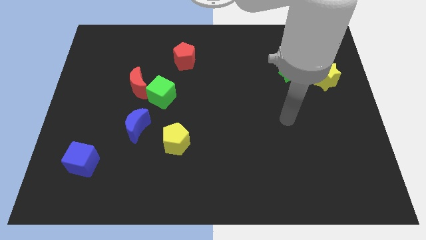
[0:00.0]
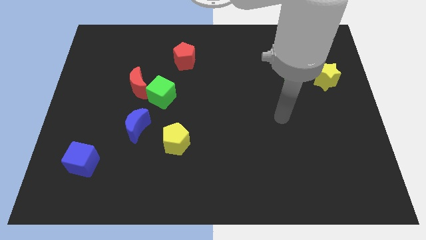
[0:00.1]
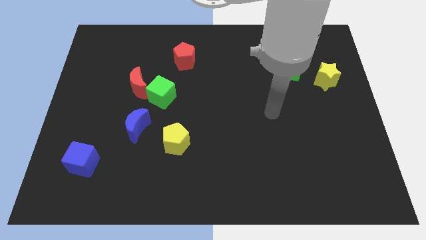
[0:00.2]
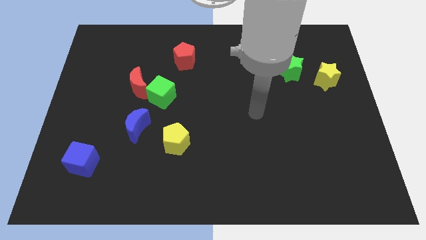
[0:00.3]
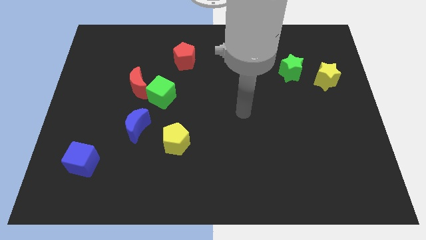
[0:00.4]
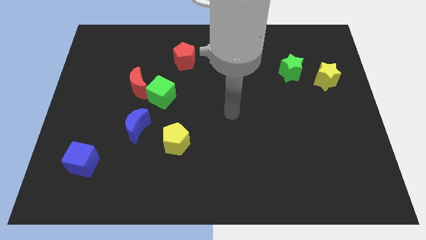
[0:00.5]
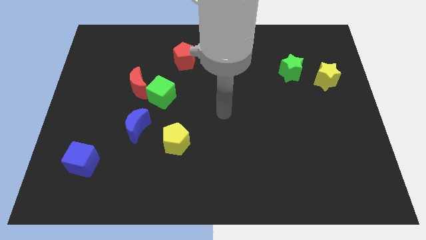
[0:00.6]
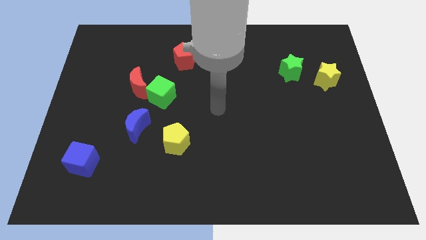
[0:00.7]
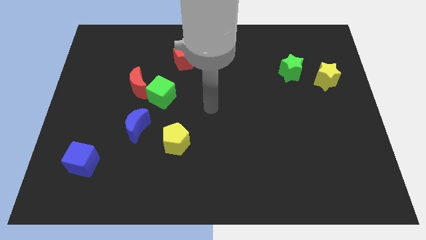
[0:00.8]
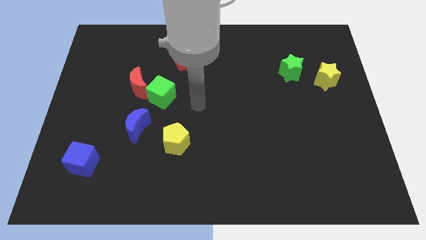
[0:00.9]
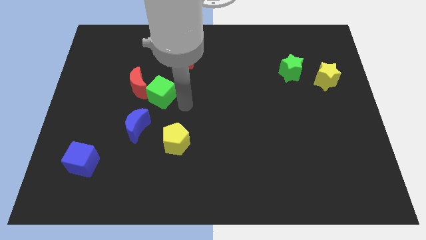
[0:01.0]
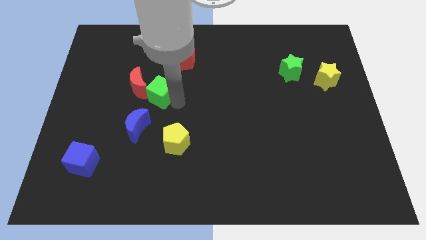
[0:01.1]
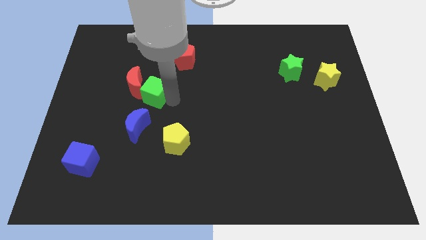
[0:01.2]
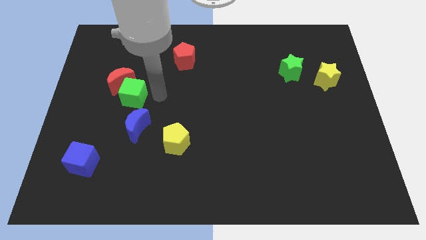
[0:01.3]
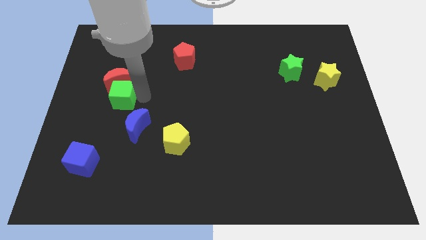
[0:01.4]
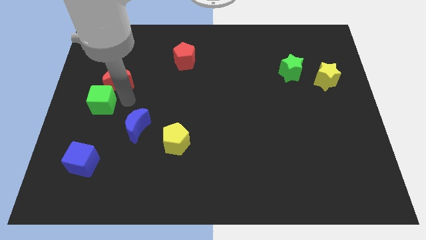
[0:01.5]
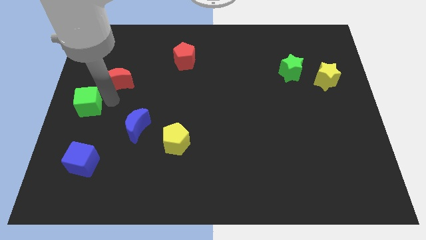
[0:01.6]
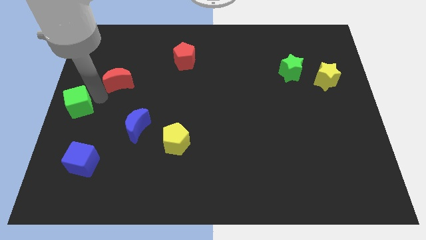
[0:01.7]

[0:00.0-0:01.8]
move the red moon away from the green cube

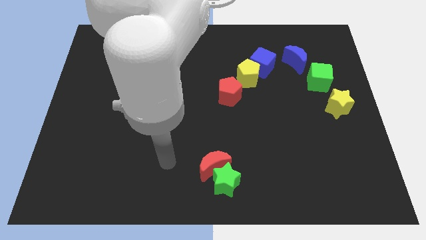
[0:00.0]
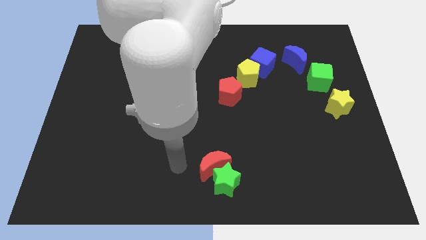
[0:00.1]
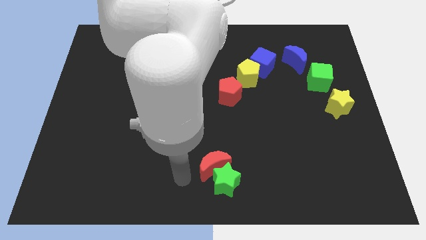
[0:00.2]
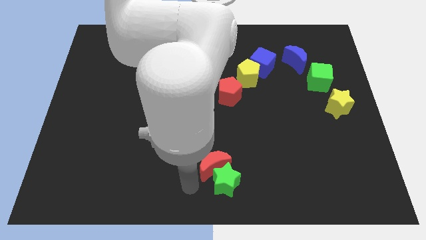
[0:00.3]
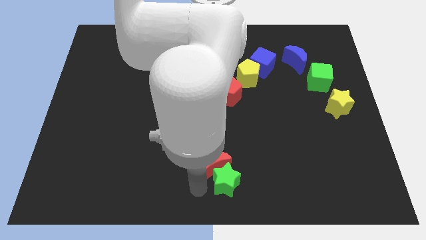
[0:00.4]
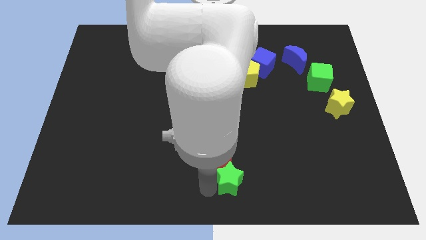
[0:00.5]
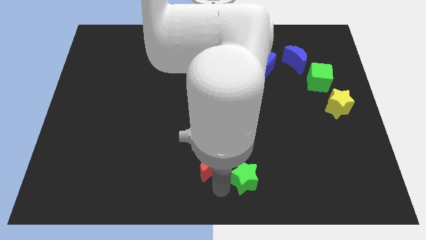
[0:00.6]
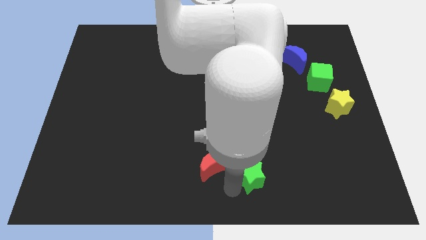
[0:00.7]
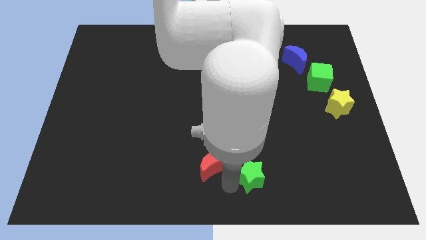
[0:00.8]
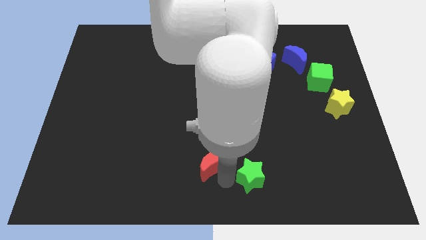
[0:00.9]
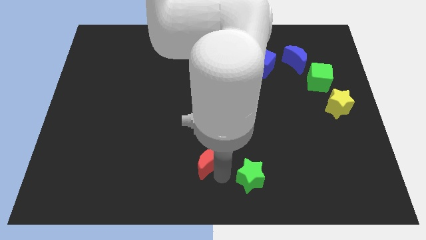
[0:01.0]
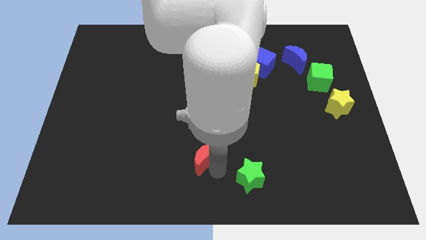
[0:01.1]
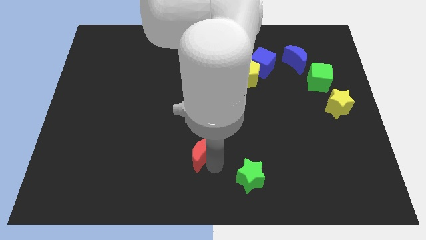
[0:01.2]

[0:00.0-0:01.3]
separate the red moon from the green star

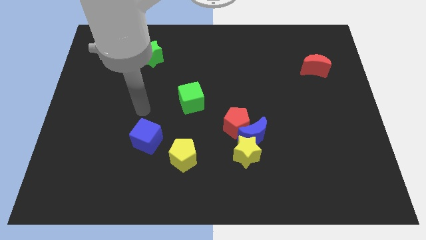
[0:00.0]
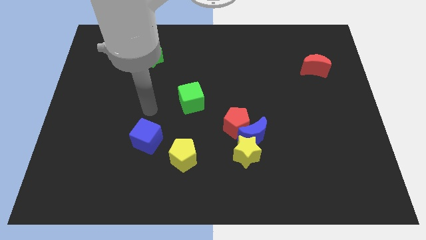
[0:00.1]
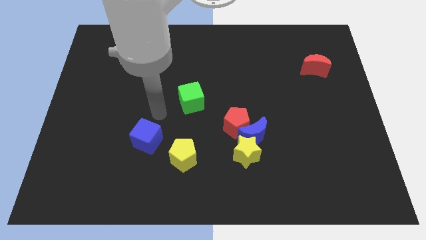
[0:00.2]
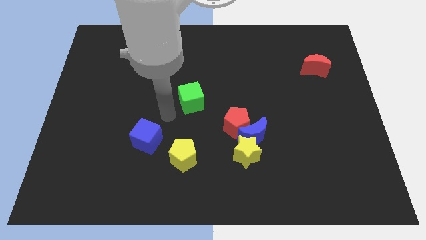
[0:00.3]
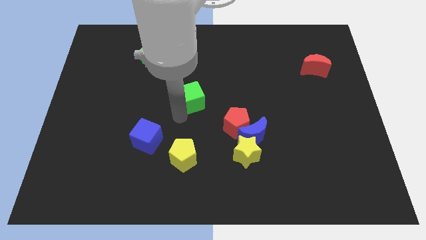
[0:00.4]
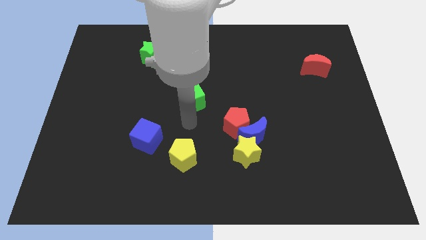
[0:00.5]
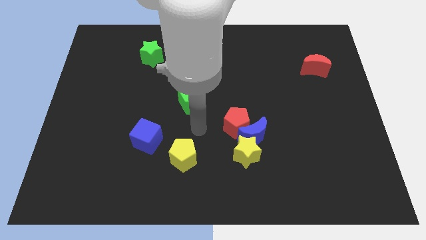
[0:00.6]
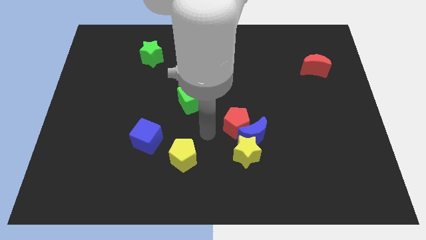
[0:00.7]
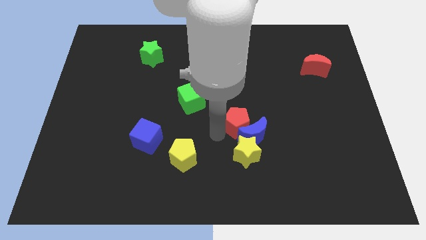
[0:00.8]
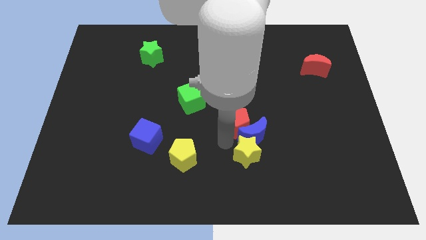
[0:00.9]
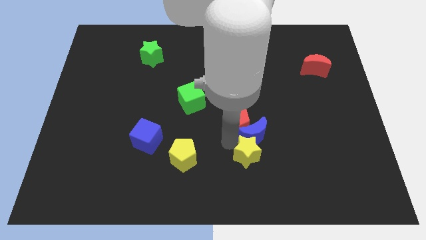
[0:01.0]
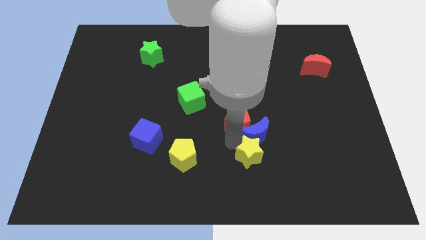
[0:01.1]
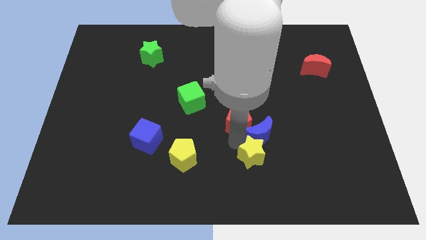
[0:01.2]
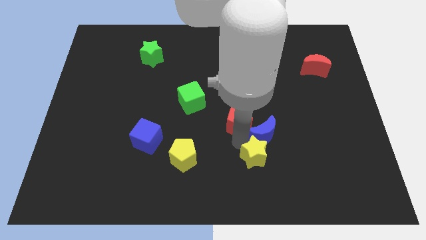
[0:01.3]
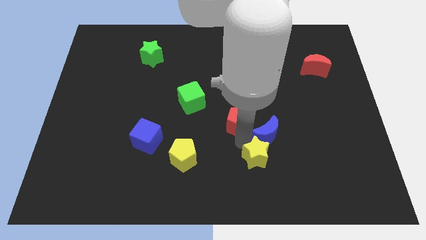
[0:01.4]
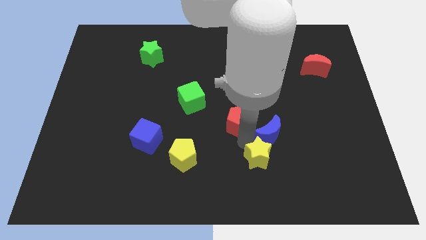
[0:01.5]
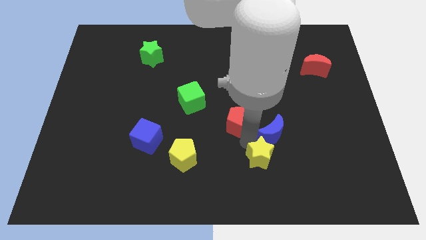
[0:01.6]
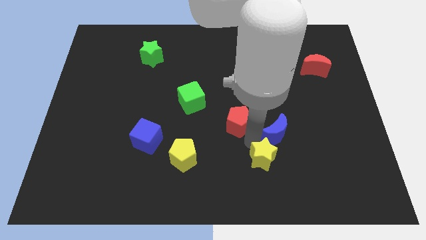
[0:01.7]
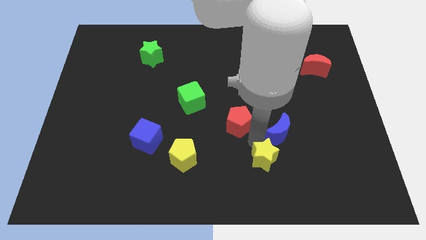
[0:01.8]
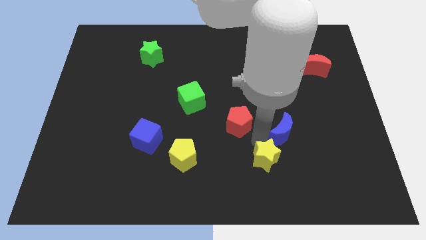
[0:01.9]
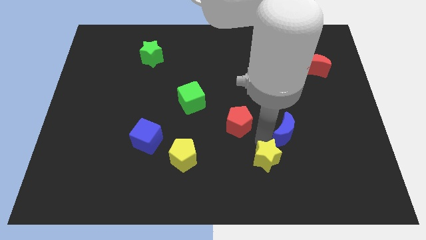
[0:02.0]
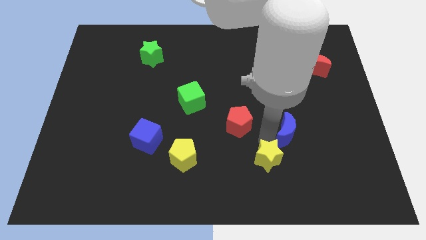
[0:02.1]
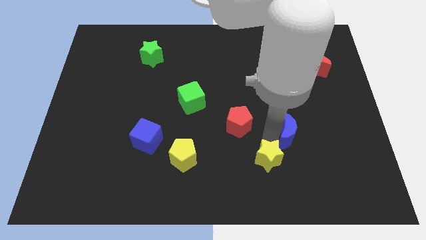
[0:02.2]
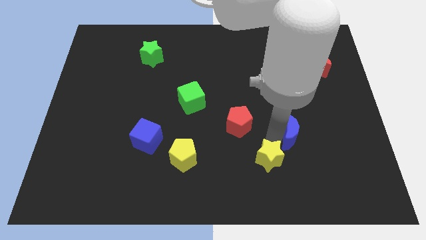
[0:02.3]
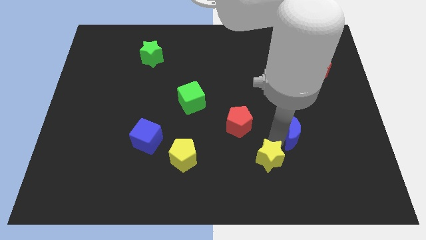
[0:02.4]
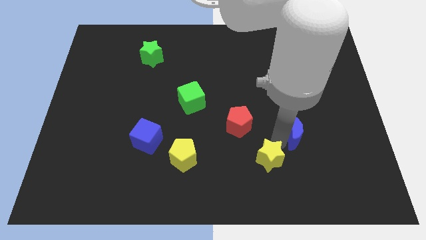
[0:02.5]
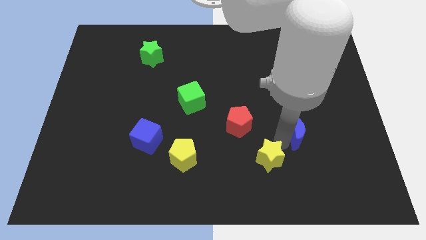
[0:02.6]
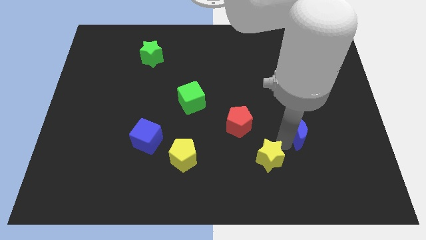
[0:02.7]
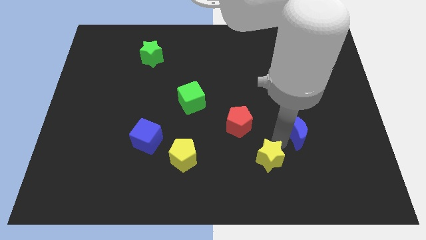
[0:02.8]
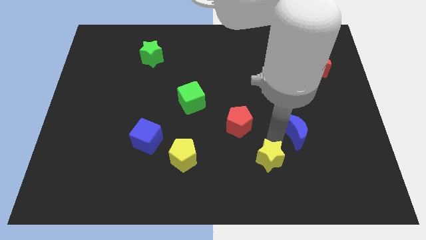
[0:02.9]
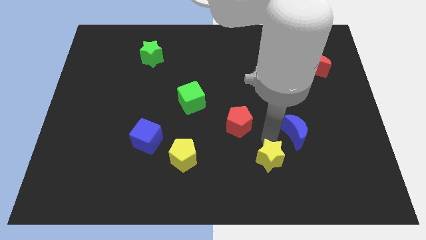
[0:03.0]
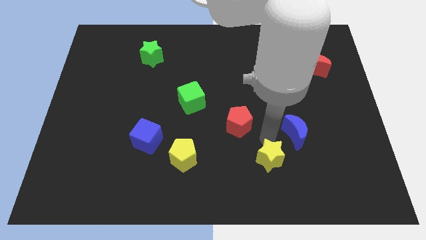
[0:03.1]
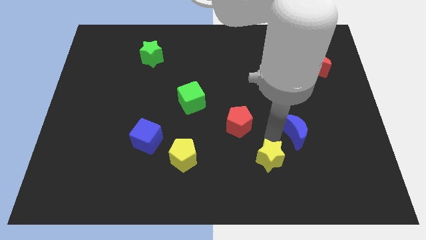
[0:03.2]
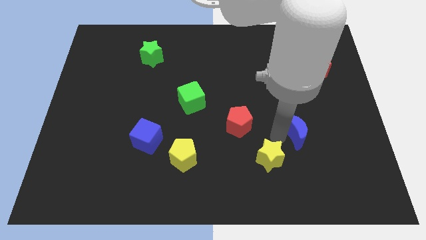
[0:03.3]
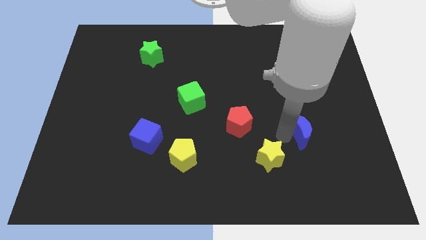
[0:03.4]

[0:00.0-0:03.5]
move the blue moon away from the red pentagon and yellow star

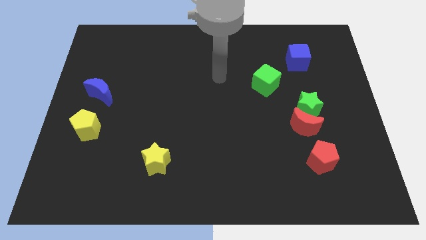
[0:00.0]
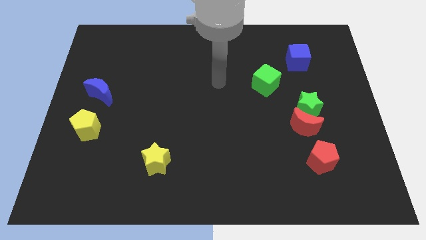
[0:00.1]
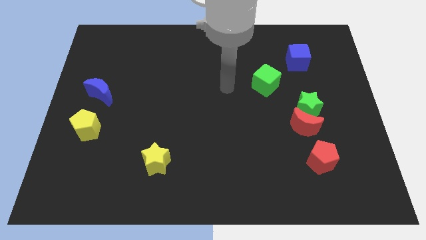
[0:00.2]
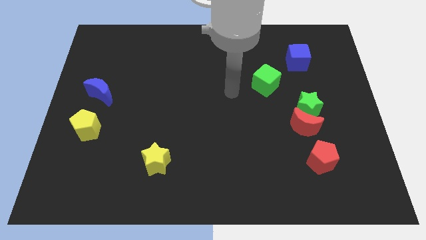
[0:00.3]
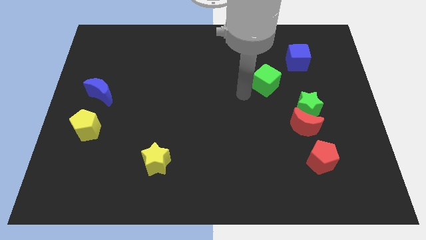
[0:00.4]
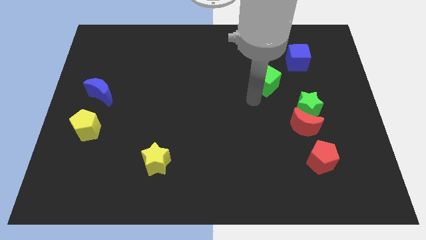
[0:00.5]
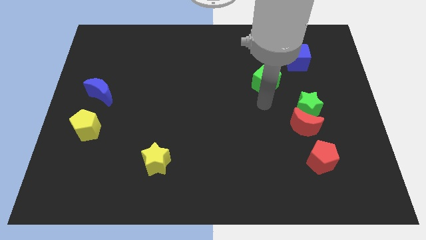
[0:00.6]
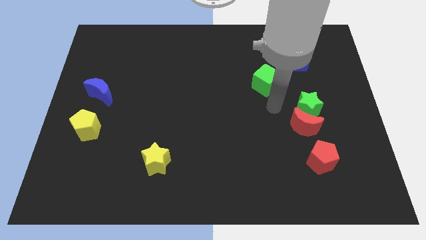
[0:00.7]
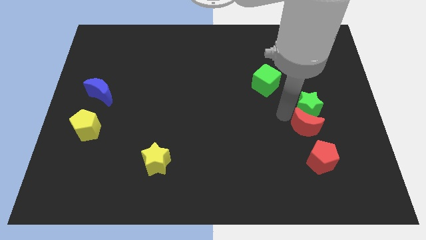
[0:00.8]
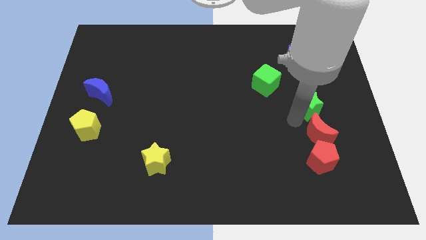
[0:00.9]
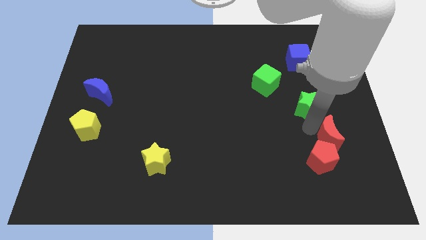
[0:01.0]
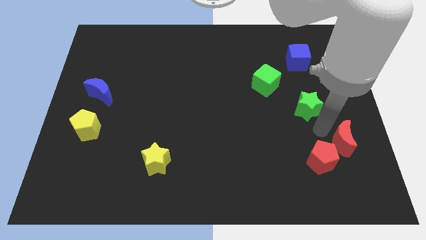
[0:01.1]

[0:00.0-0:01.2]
move the green star away from the red moon

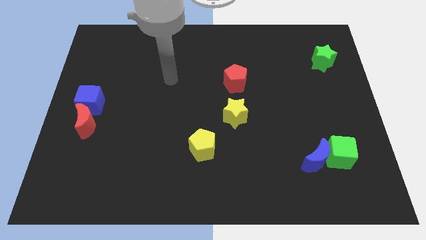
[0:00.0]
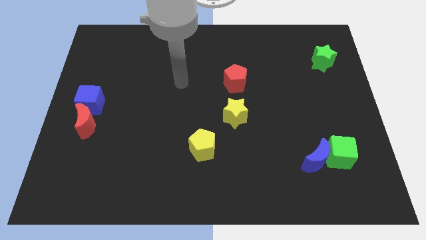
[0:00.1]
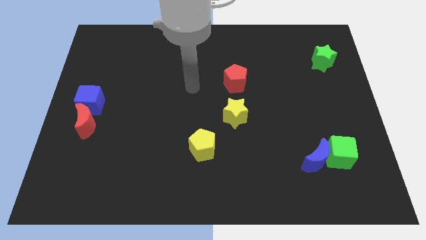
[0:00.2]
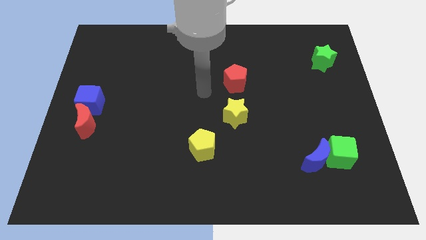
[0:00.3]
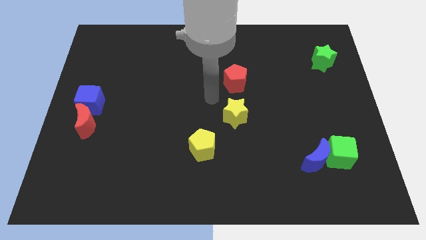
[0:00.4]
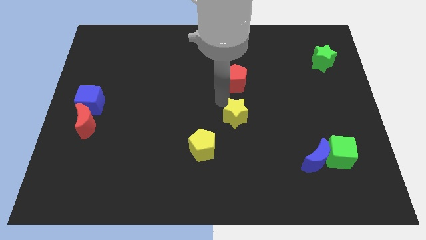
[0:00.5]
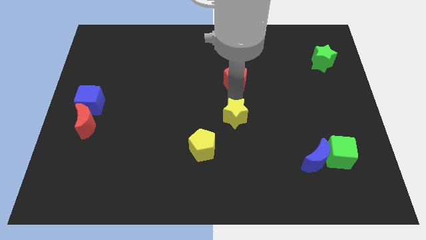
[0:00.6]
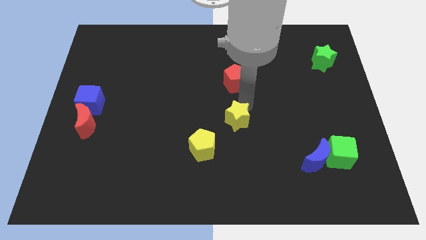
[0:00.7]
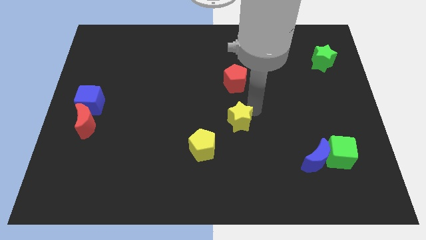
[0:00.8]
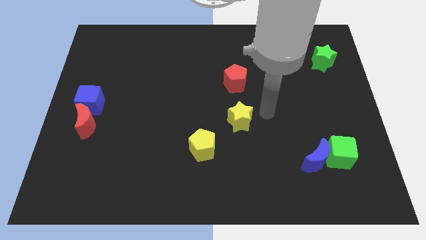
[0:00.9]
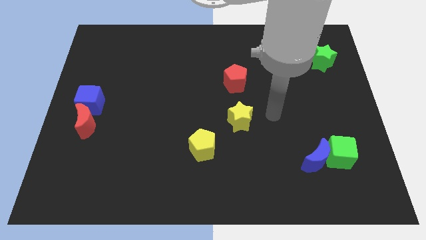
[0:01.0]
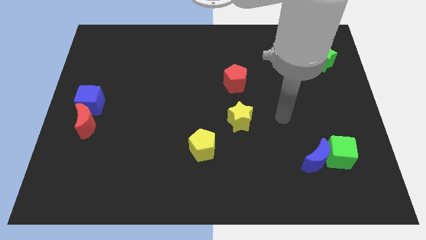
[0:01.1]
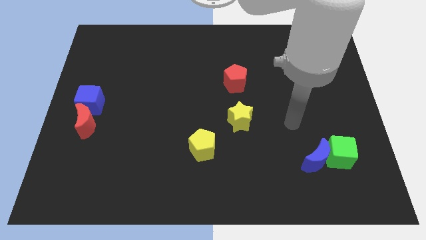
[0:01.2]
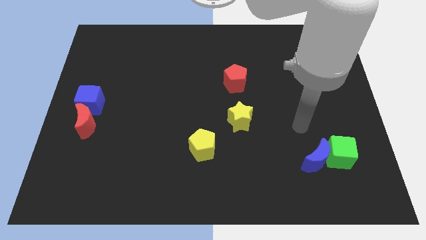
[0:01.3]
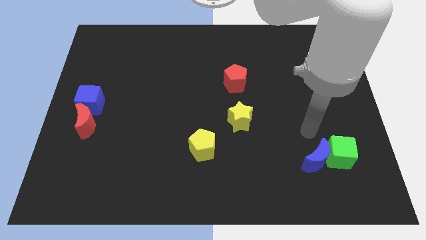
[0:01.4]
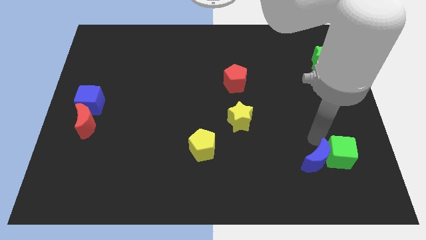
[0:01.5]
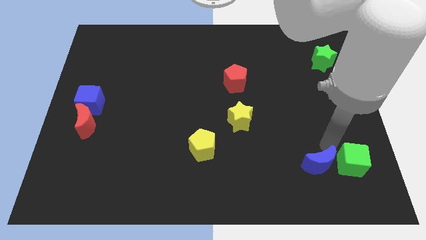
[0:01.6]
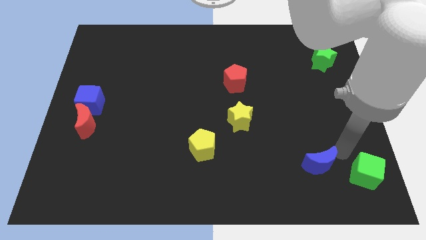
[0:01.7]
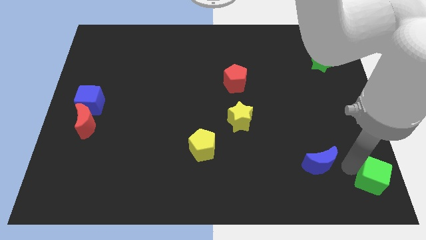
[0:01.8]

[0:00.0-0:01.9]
separate the blue moon from the green cube
